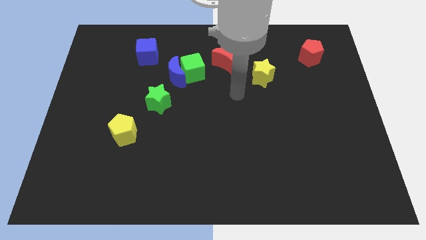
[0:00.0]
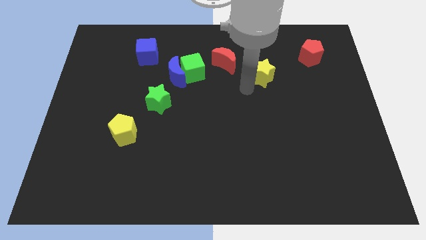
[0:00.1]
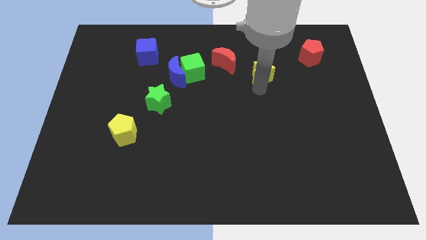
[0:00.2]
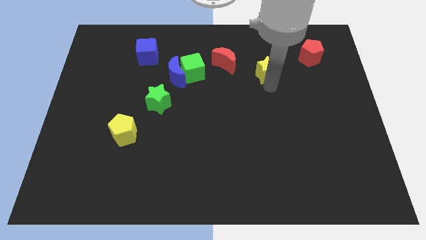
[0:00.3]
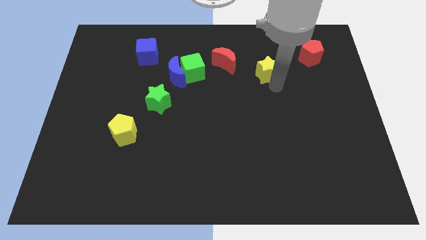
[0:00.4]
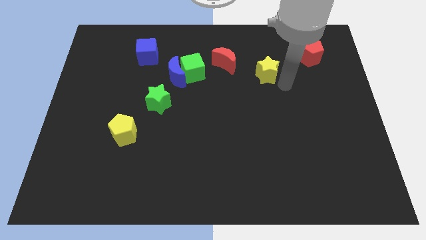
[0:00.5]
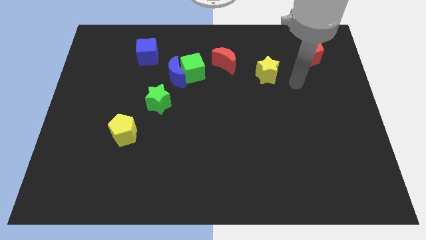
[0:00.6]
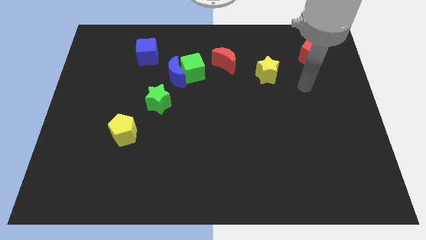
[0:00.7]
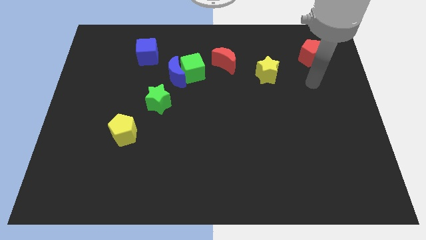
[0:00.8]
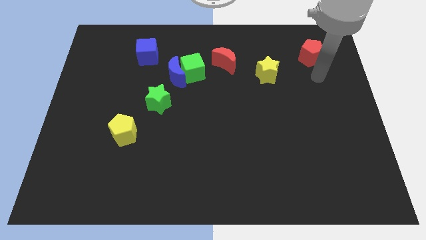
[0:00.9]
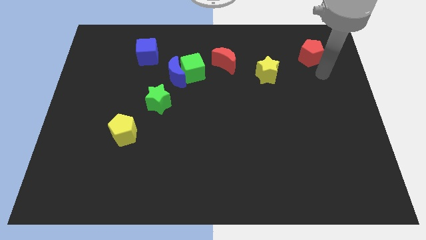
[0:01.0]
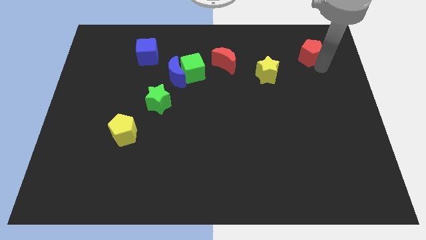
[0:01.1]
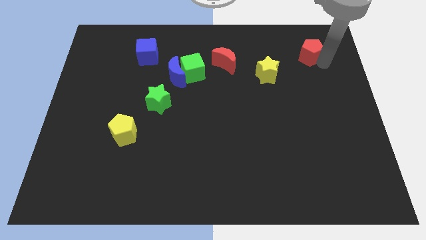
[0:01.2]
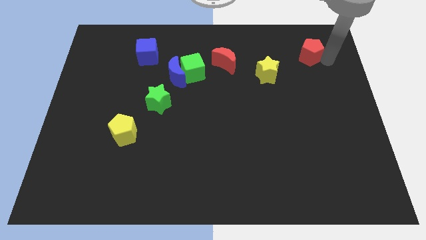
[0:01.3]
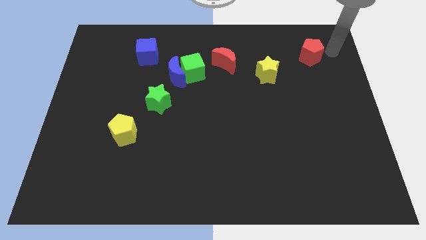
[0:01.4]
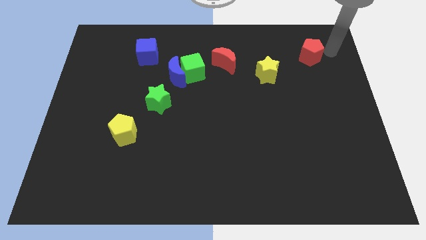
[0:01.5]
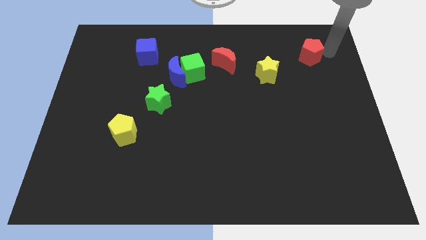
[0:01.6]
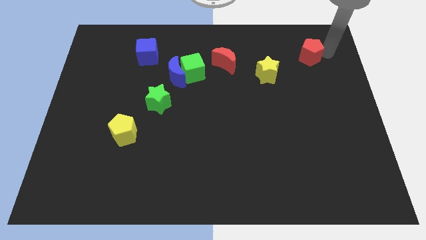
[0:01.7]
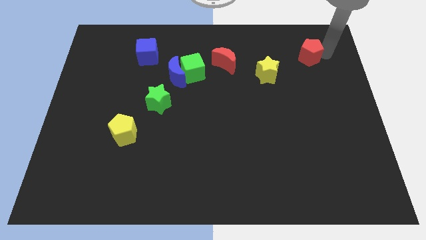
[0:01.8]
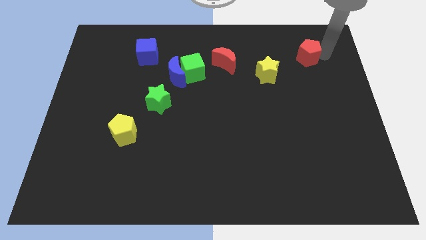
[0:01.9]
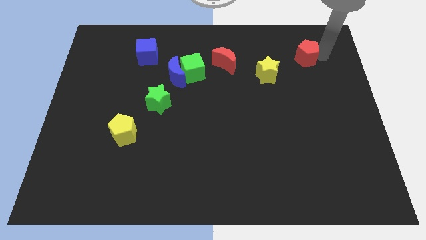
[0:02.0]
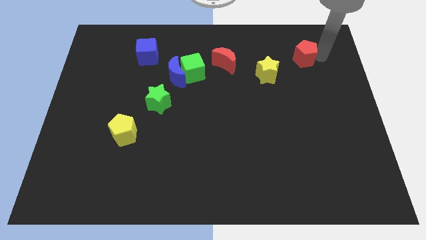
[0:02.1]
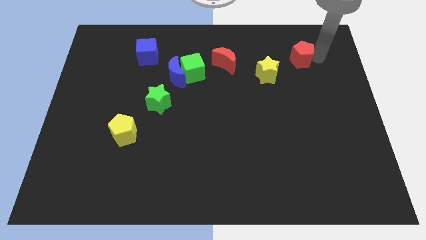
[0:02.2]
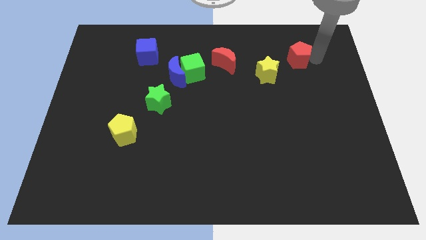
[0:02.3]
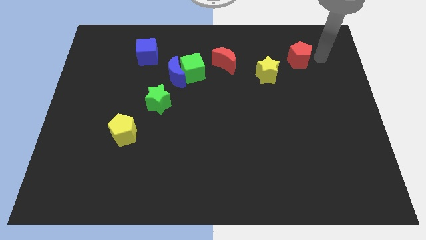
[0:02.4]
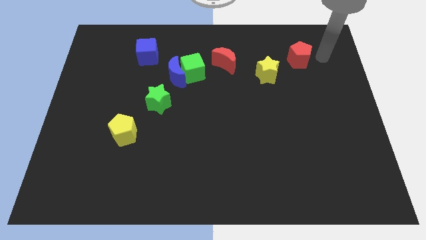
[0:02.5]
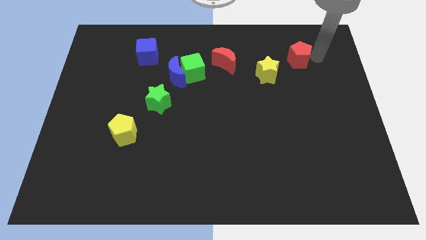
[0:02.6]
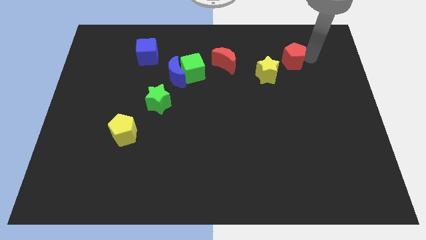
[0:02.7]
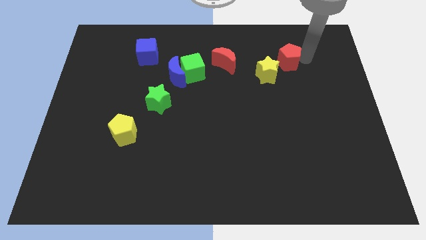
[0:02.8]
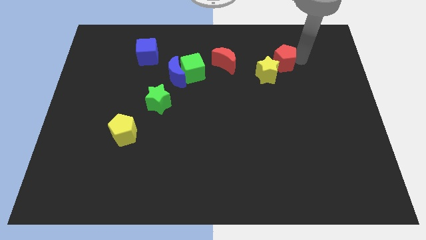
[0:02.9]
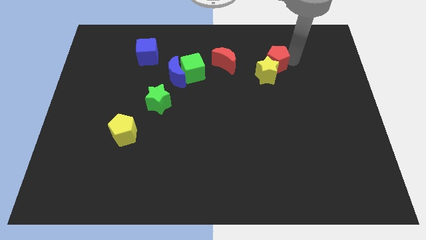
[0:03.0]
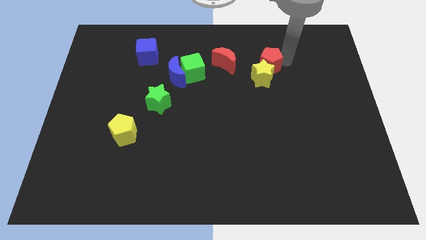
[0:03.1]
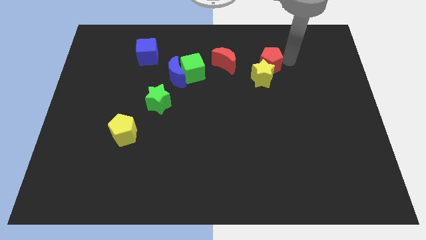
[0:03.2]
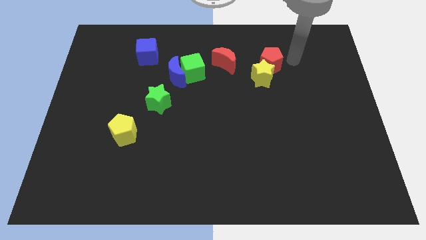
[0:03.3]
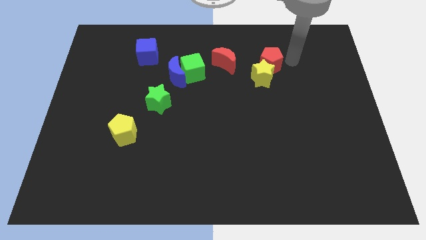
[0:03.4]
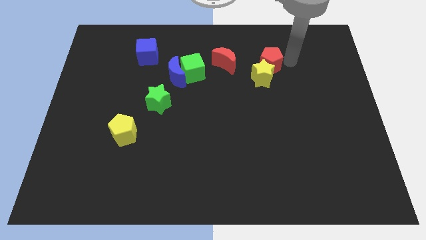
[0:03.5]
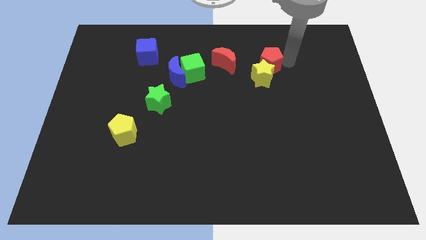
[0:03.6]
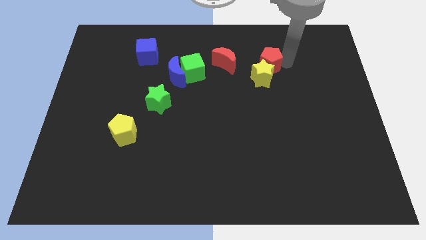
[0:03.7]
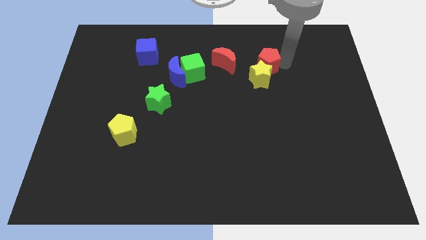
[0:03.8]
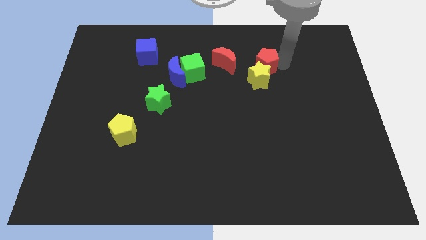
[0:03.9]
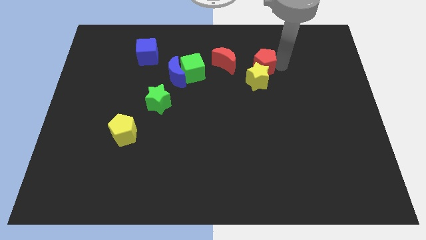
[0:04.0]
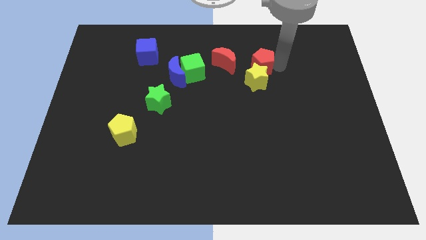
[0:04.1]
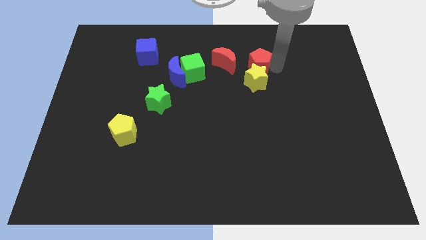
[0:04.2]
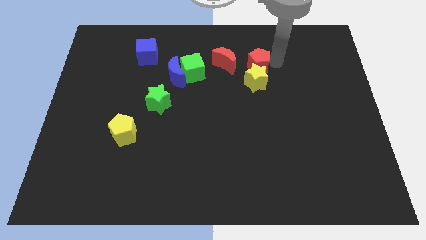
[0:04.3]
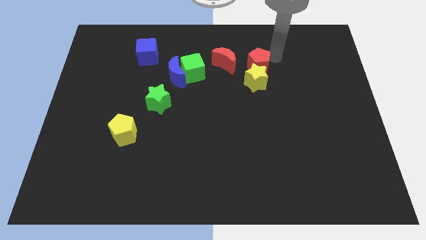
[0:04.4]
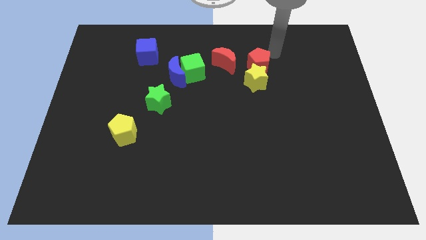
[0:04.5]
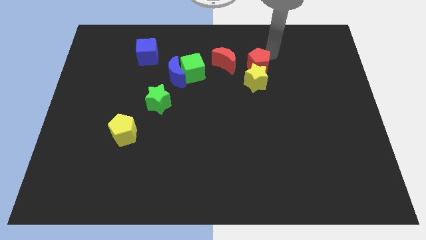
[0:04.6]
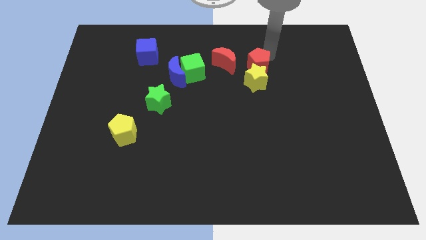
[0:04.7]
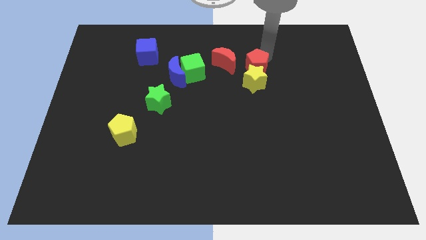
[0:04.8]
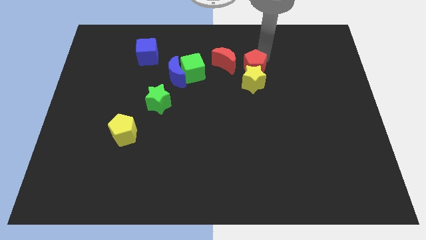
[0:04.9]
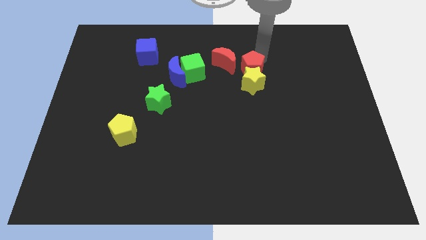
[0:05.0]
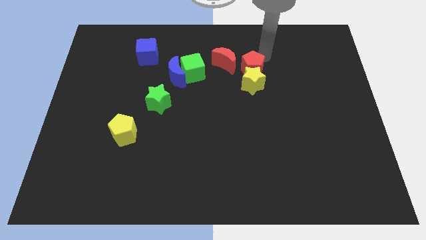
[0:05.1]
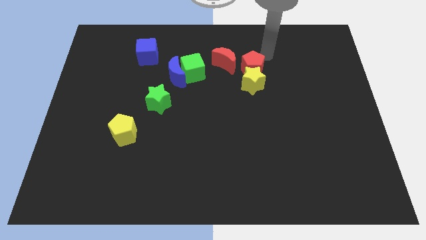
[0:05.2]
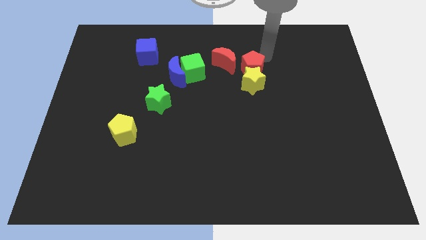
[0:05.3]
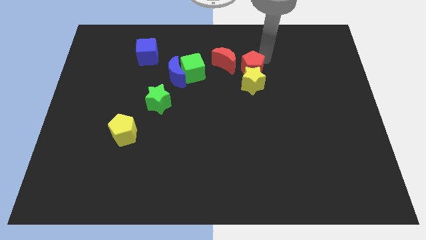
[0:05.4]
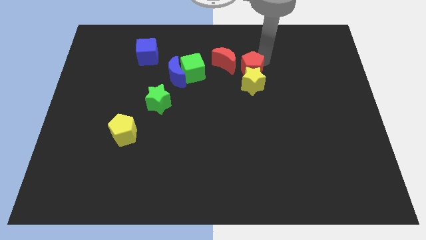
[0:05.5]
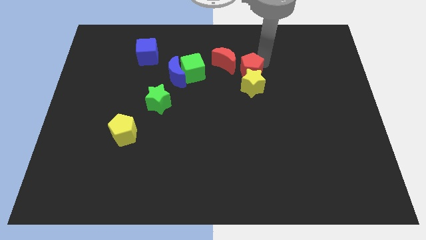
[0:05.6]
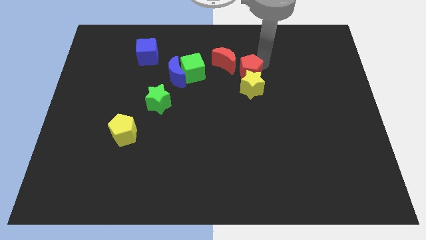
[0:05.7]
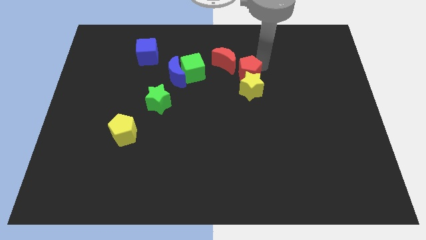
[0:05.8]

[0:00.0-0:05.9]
put the red pentagon to the center of the board
